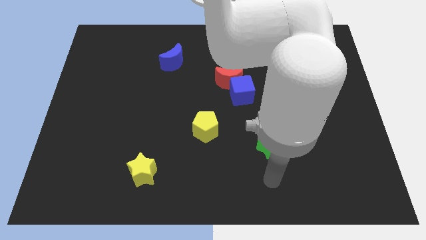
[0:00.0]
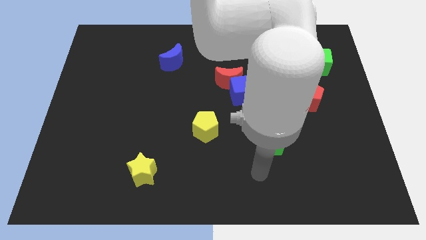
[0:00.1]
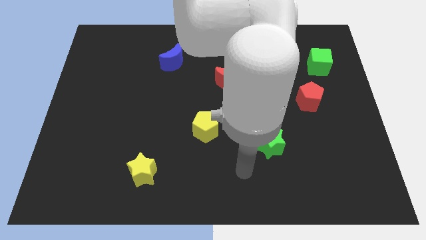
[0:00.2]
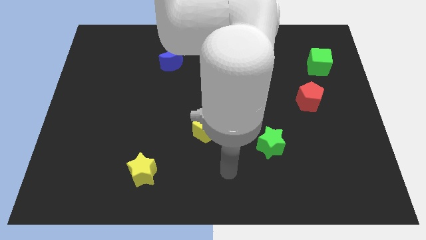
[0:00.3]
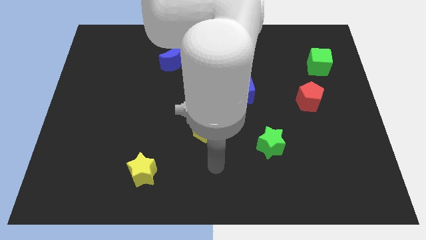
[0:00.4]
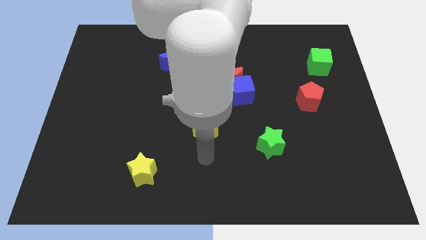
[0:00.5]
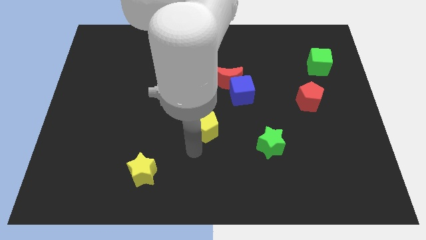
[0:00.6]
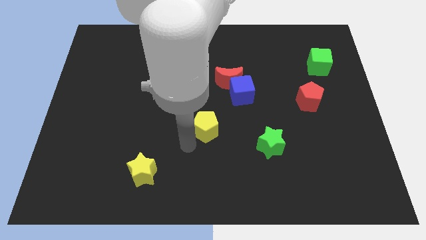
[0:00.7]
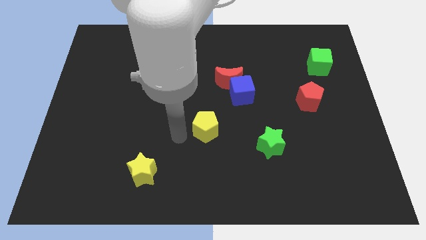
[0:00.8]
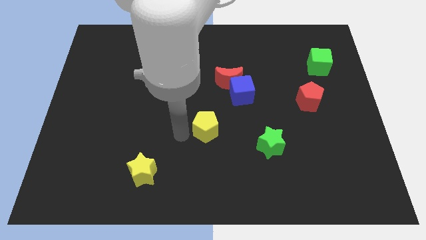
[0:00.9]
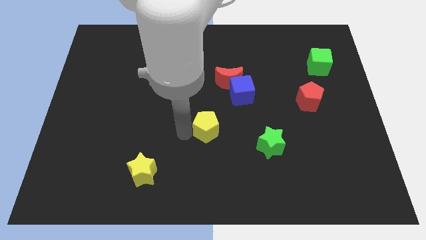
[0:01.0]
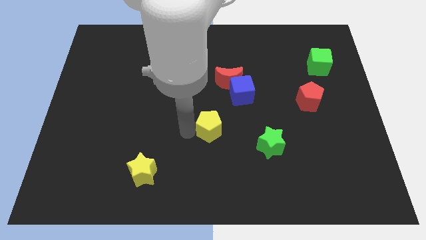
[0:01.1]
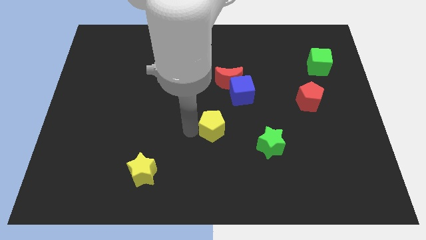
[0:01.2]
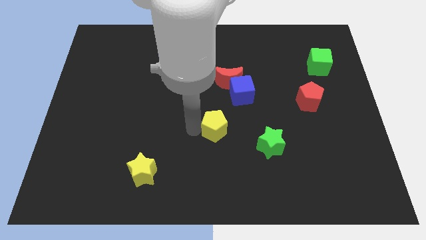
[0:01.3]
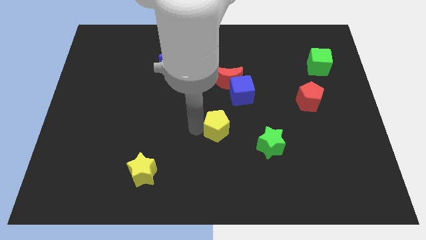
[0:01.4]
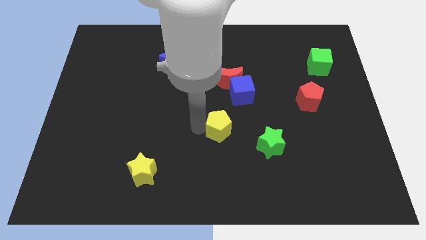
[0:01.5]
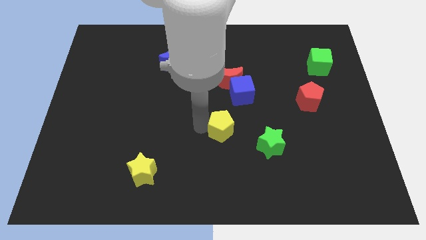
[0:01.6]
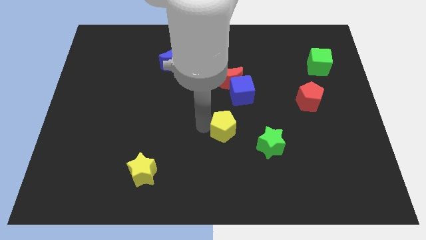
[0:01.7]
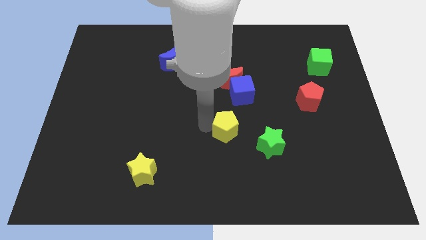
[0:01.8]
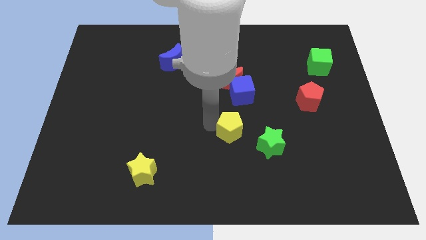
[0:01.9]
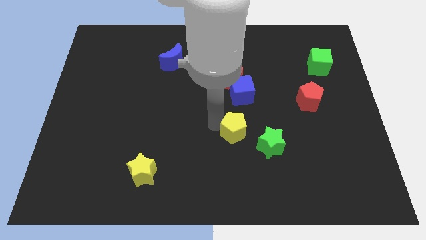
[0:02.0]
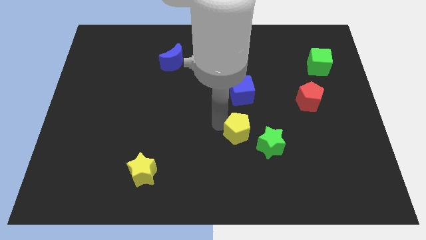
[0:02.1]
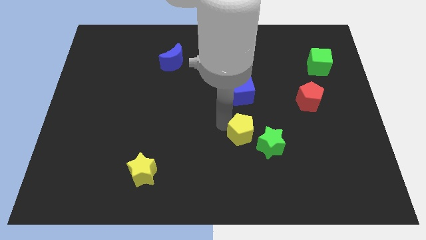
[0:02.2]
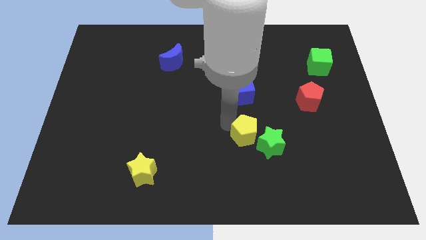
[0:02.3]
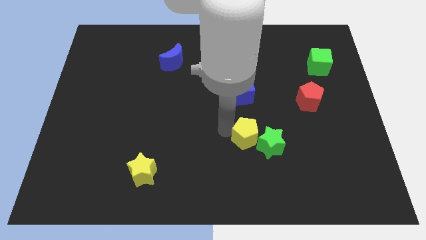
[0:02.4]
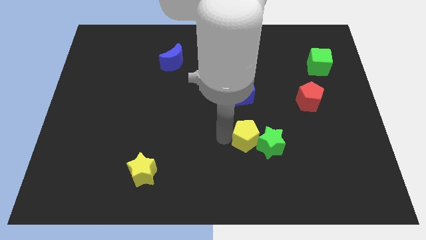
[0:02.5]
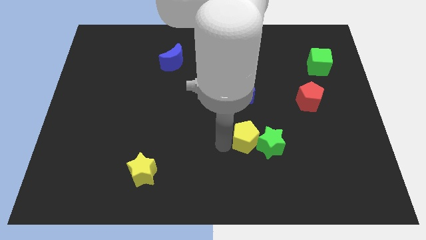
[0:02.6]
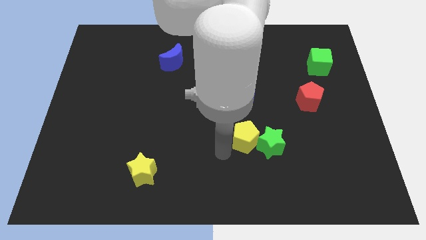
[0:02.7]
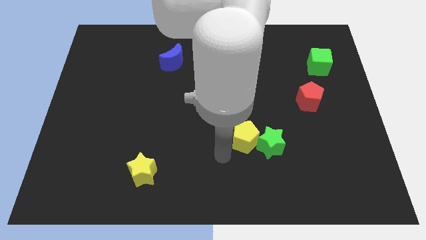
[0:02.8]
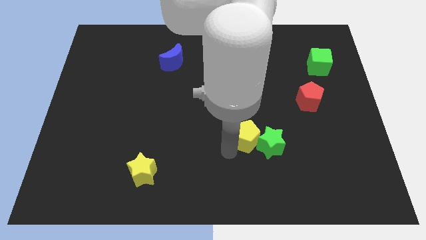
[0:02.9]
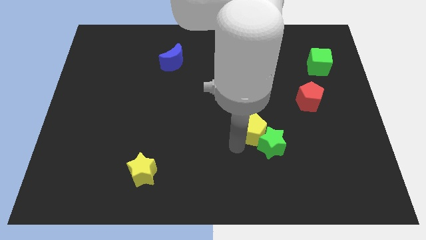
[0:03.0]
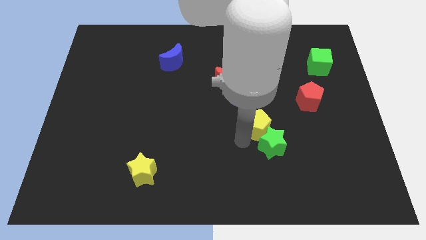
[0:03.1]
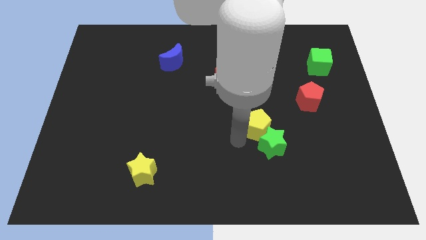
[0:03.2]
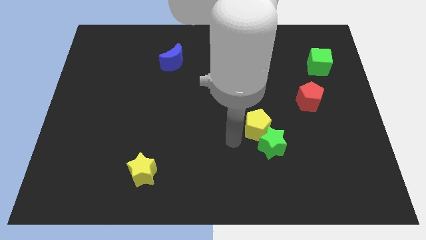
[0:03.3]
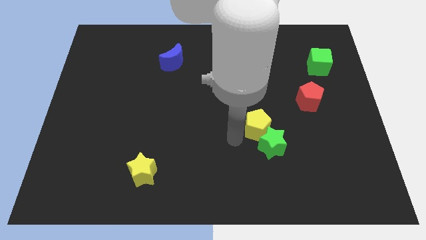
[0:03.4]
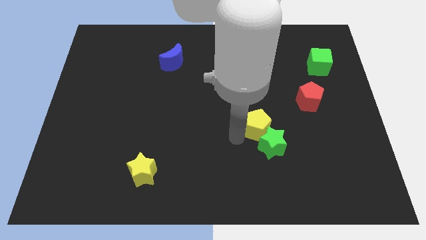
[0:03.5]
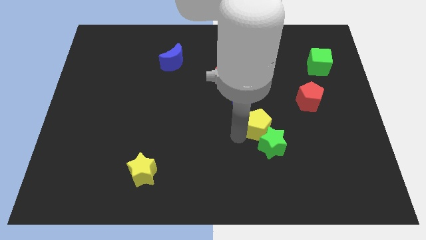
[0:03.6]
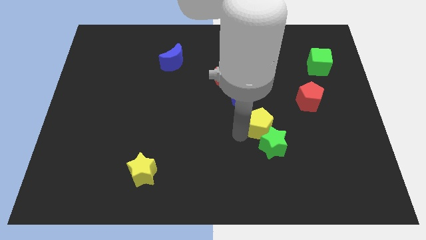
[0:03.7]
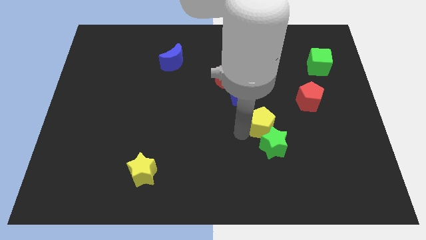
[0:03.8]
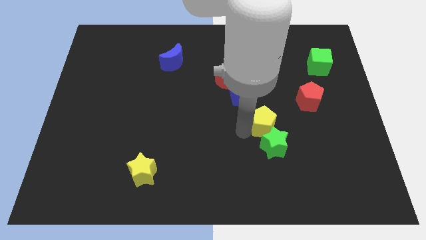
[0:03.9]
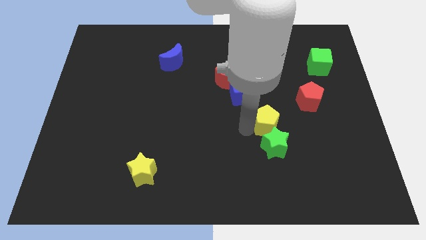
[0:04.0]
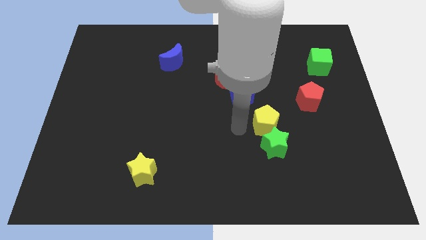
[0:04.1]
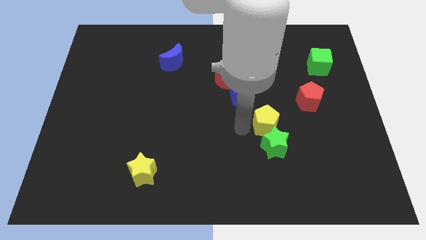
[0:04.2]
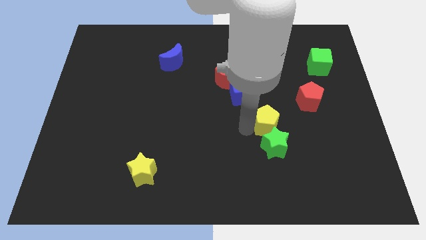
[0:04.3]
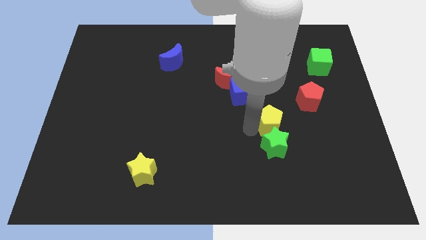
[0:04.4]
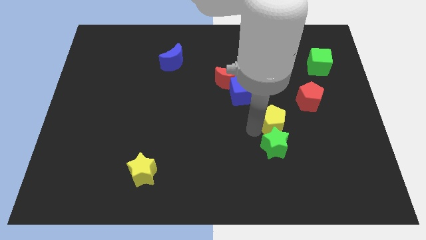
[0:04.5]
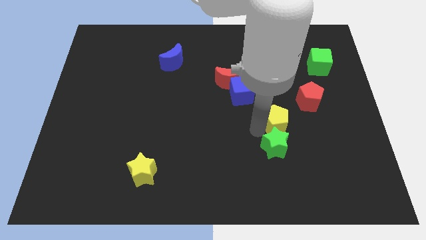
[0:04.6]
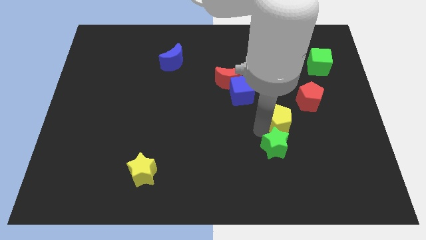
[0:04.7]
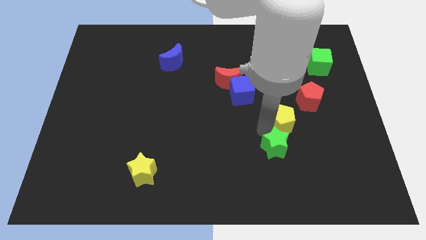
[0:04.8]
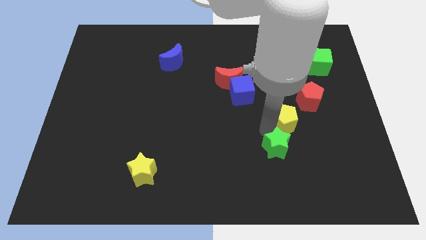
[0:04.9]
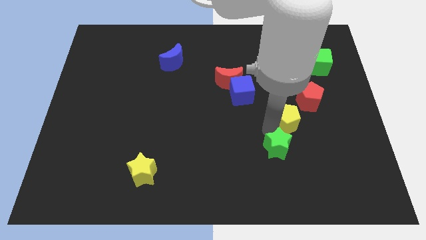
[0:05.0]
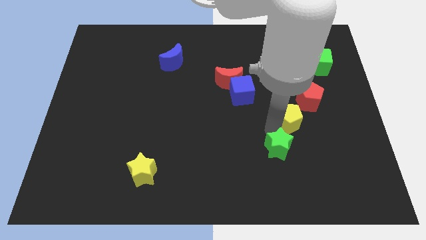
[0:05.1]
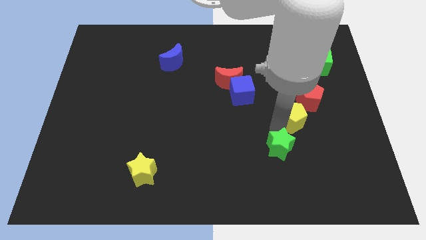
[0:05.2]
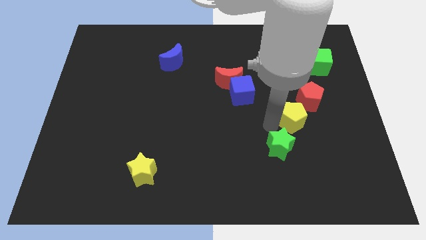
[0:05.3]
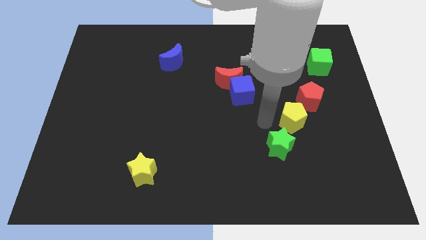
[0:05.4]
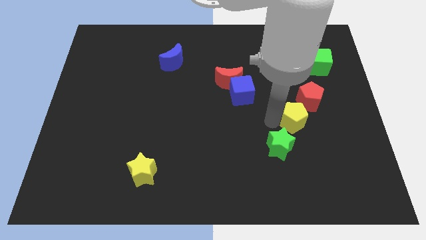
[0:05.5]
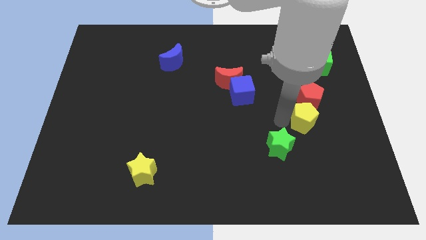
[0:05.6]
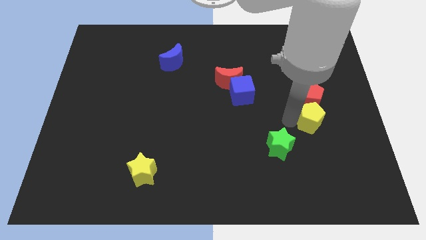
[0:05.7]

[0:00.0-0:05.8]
move the yellow pentagon diagonally down and to the right of the red pentagon
